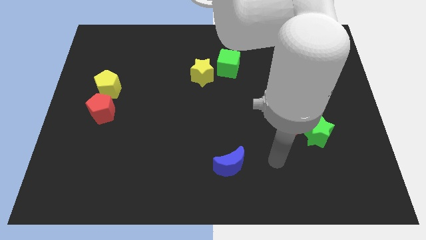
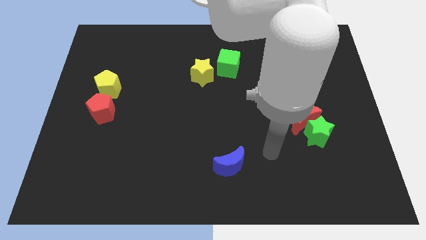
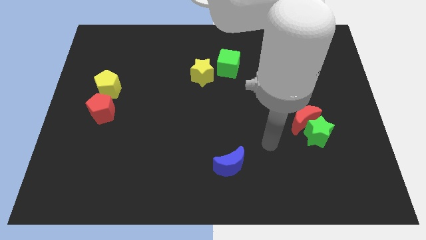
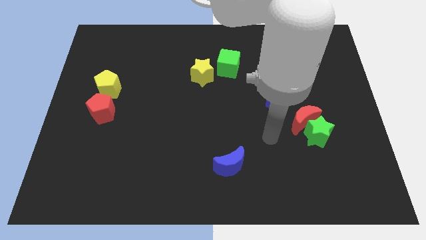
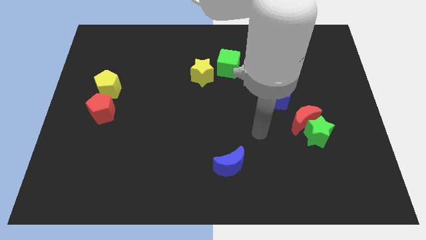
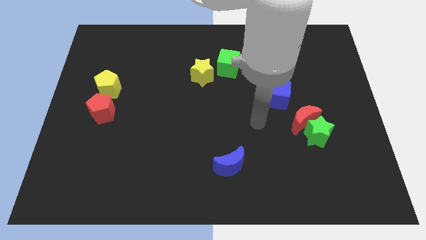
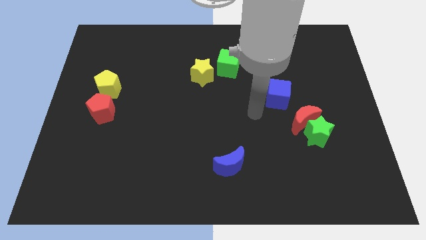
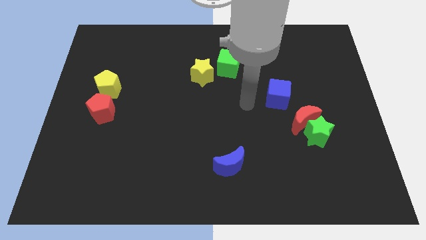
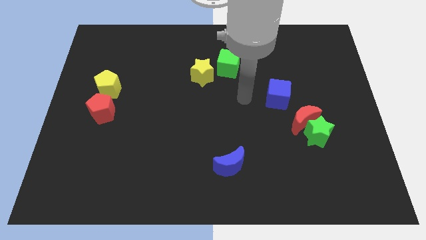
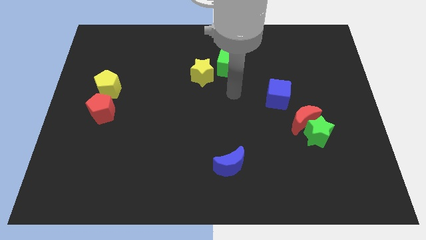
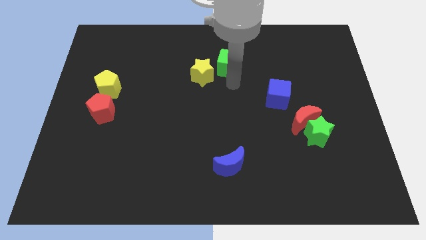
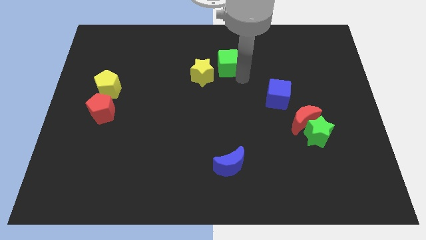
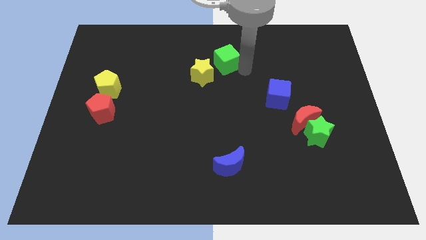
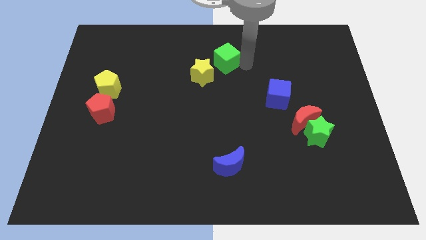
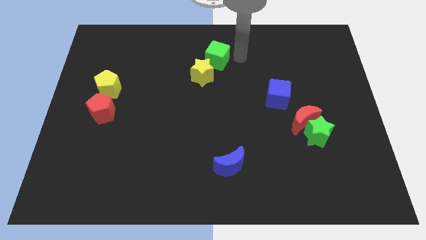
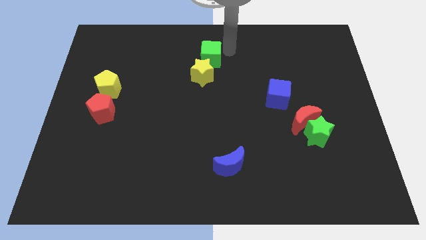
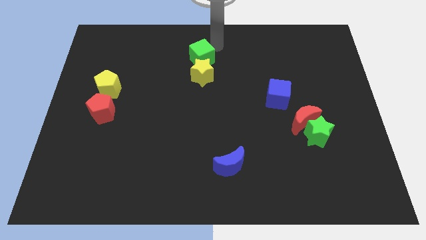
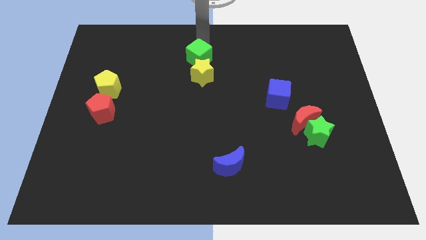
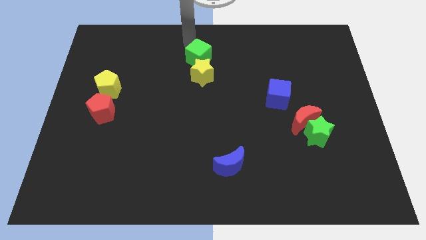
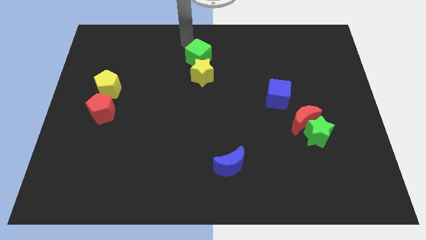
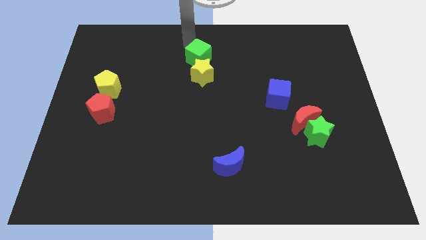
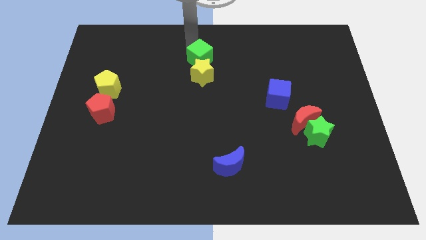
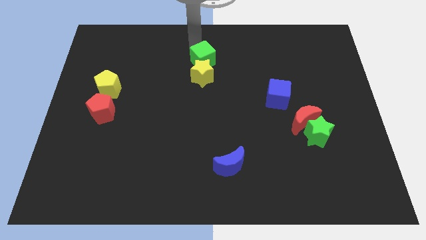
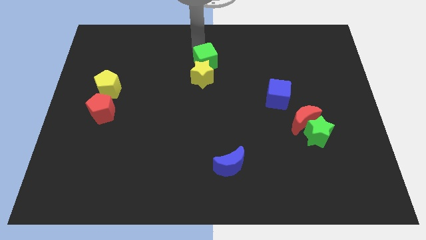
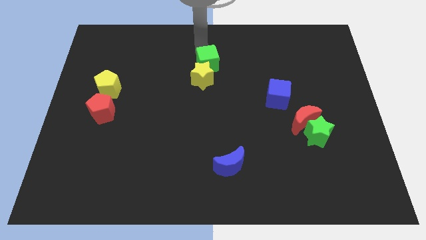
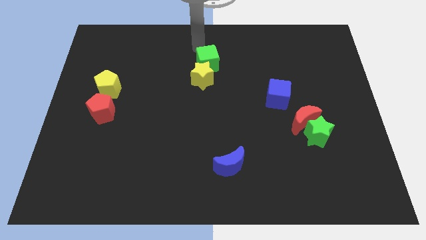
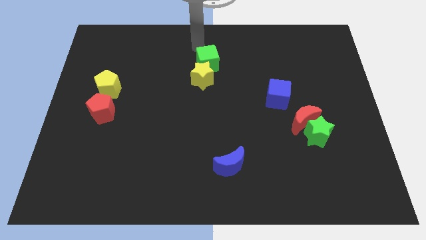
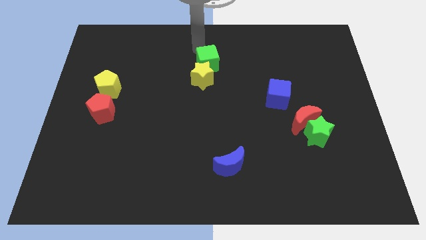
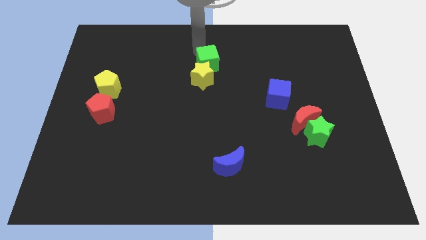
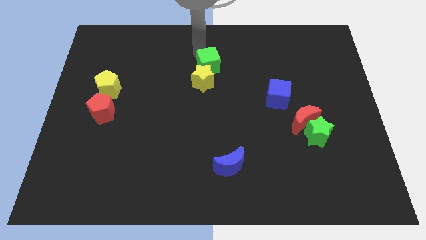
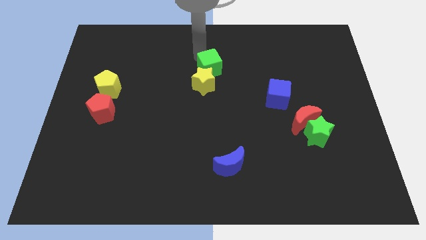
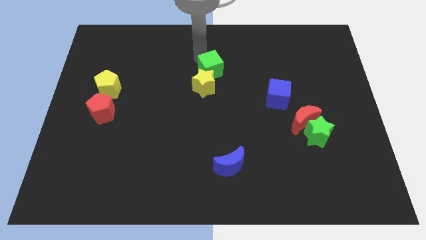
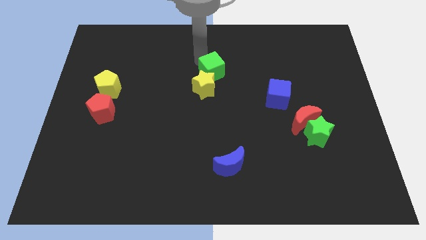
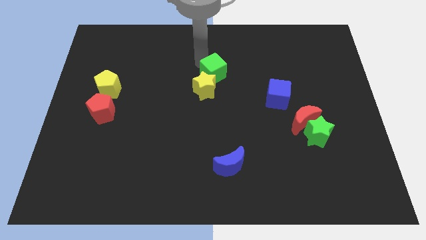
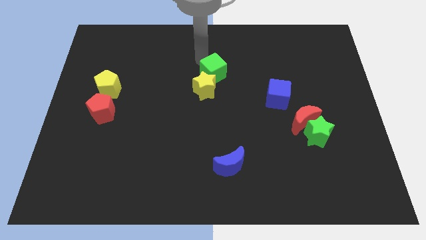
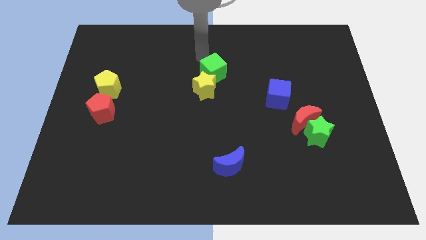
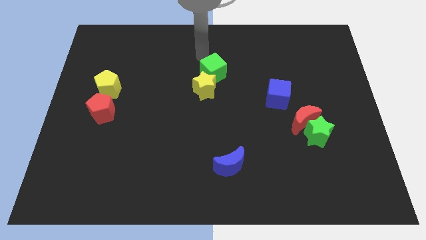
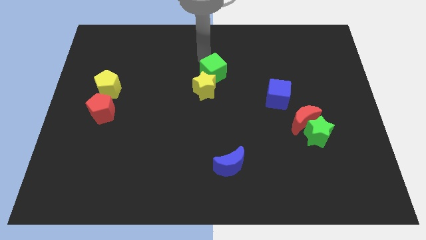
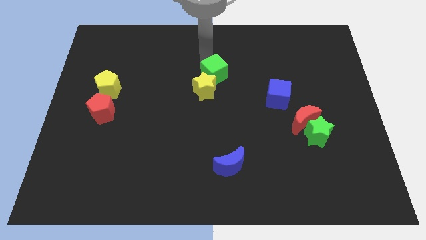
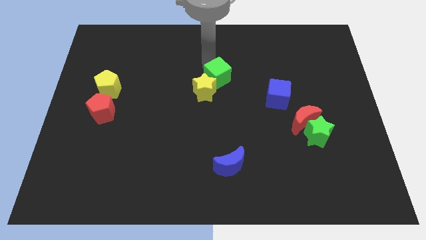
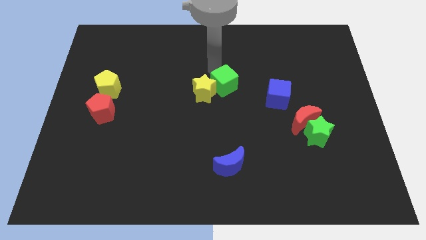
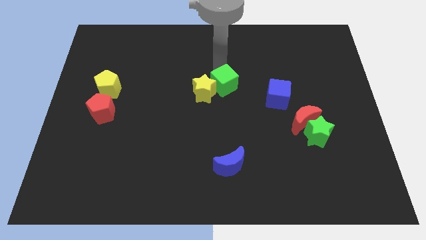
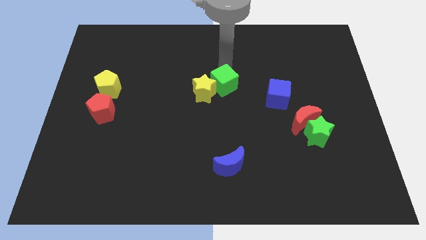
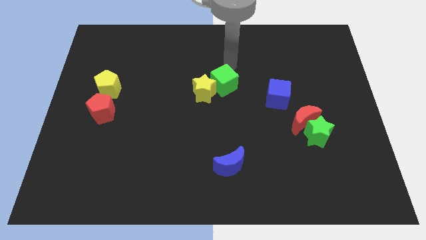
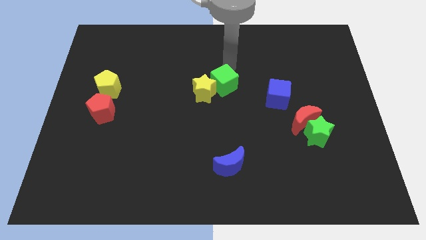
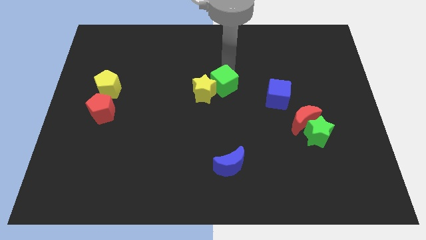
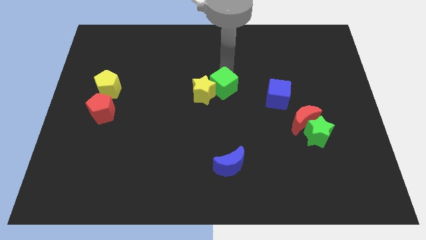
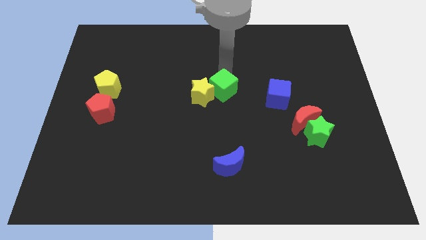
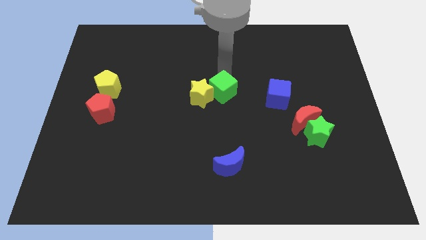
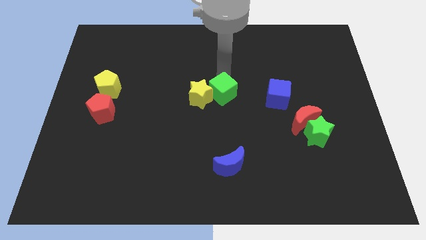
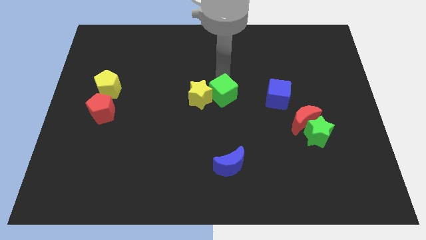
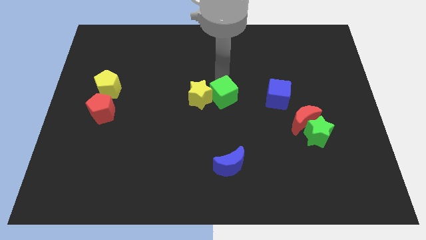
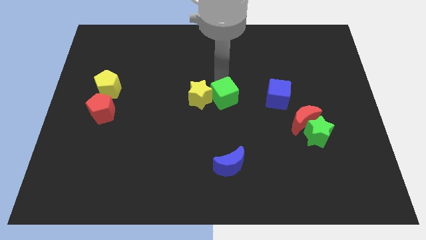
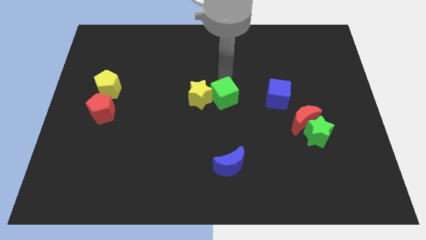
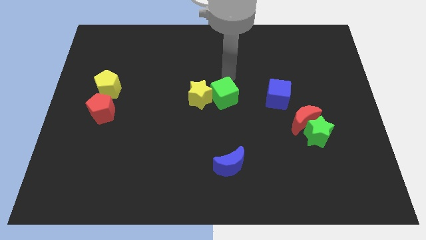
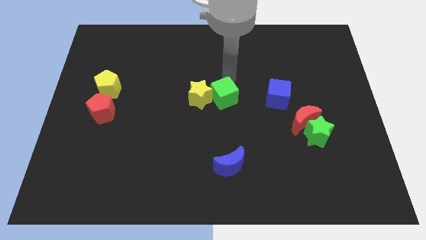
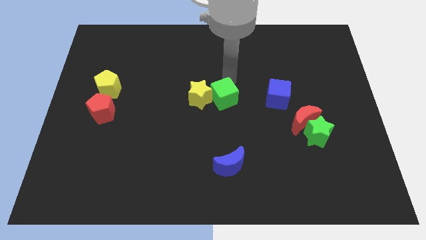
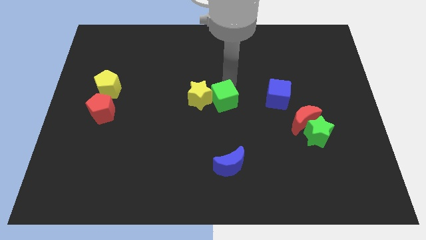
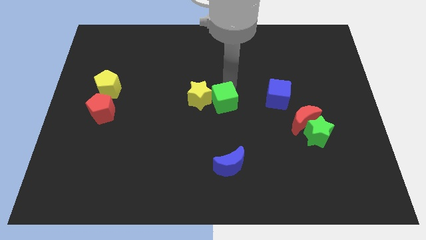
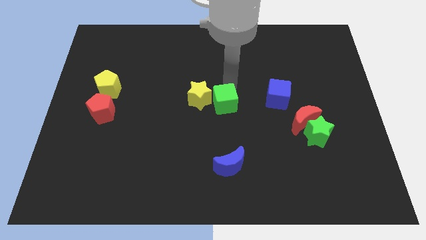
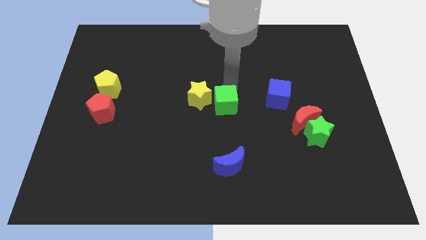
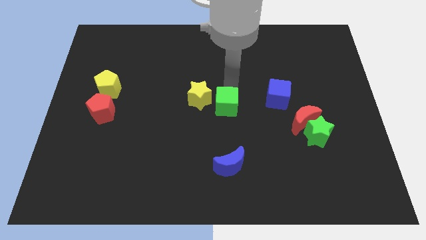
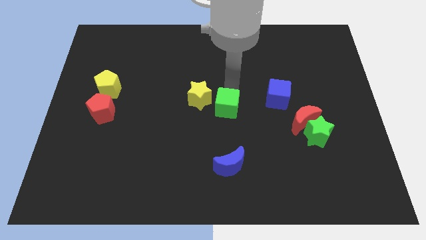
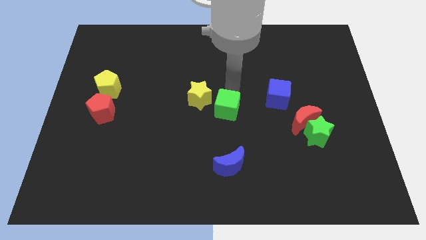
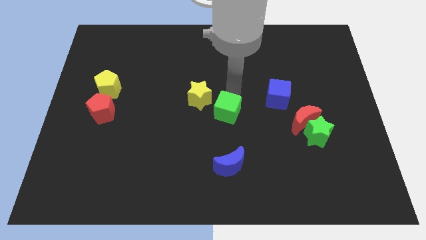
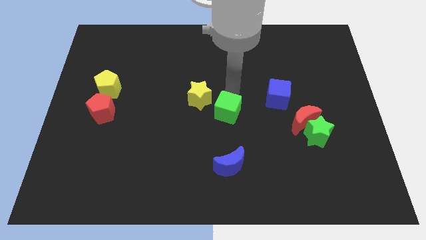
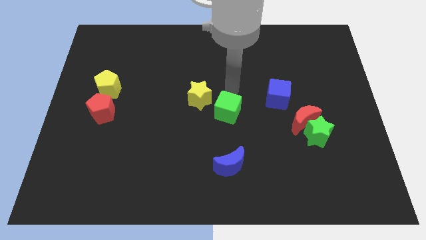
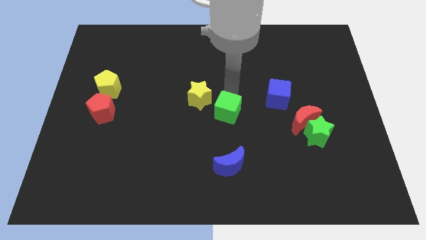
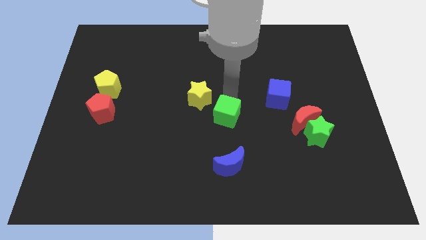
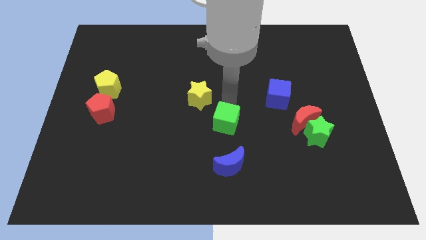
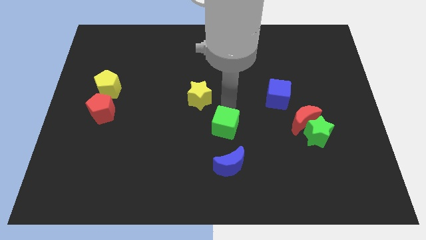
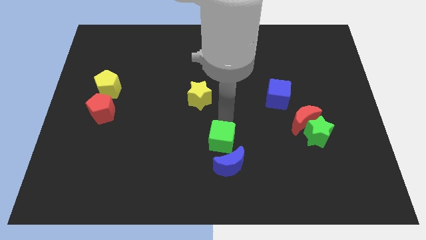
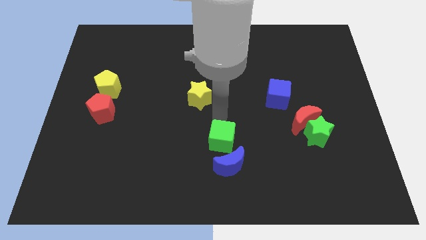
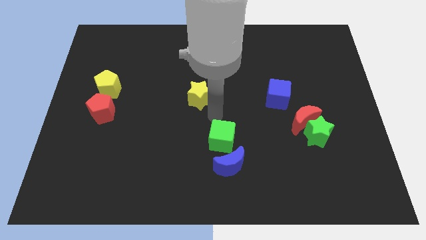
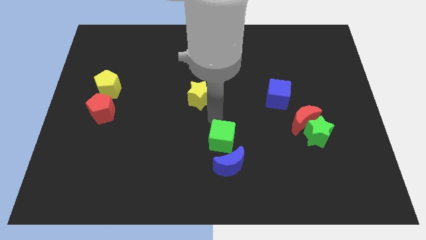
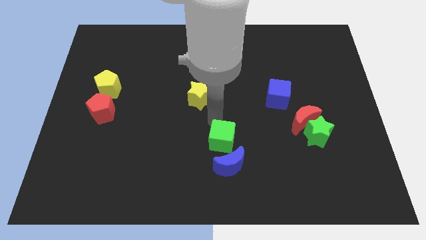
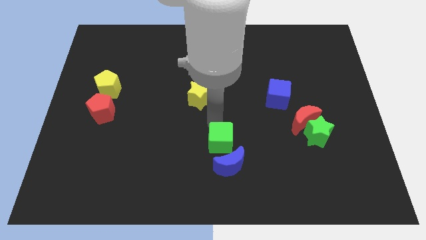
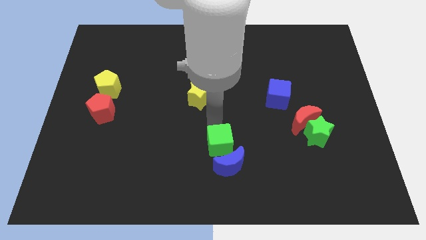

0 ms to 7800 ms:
move the green cube towards the blue moon
